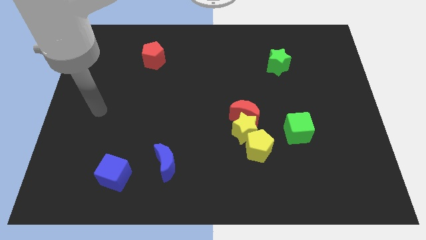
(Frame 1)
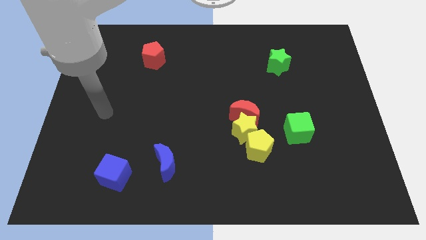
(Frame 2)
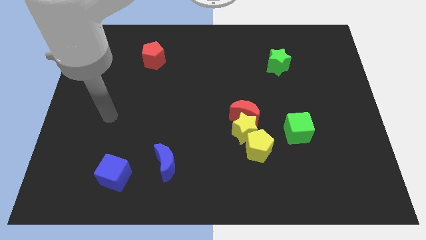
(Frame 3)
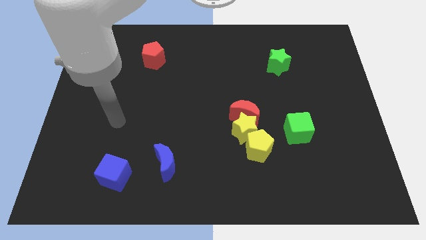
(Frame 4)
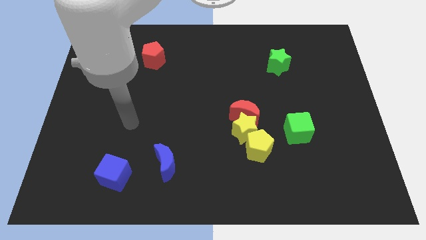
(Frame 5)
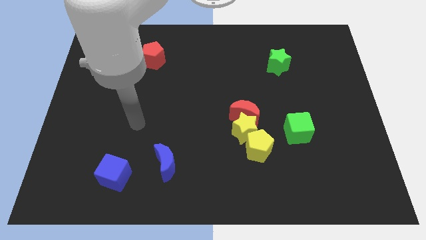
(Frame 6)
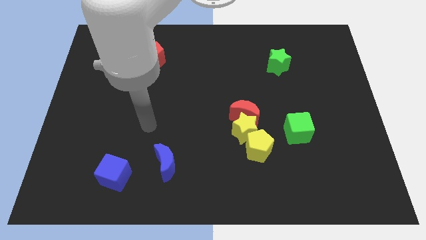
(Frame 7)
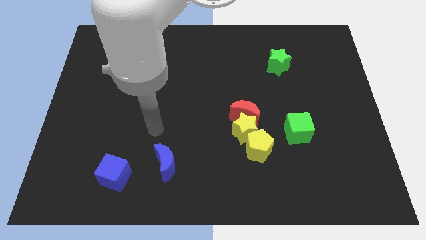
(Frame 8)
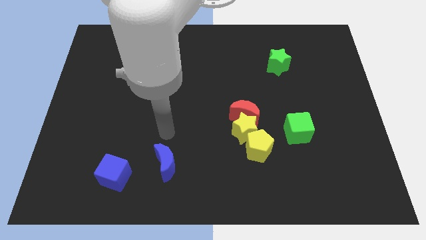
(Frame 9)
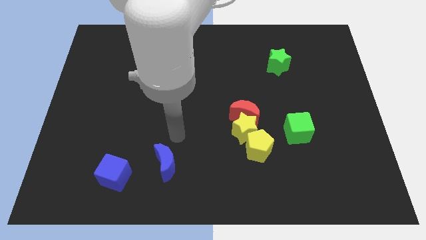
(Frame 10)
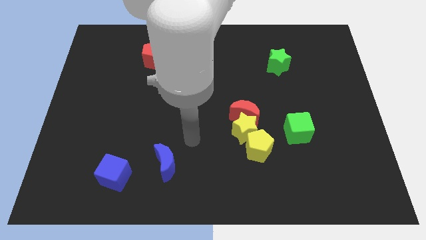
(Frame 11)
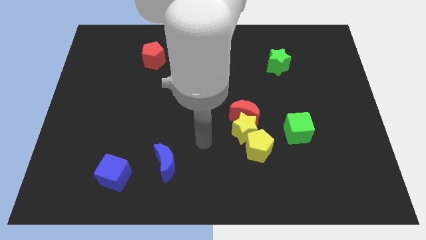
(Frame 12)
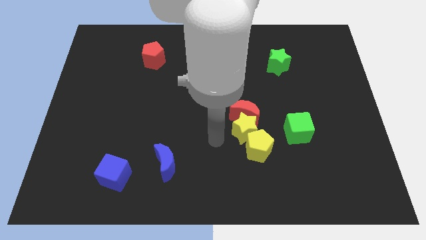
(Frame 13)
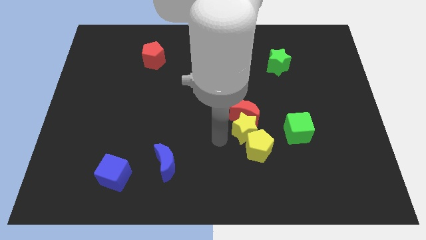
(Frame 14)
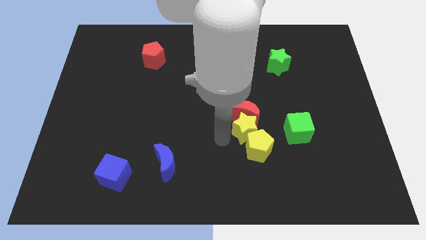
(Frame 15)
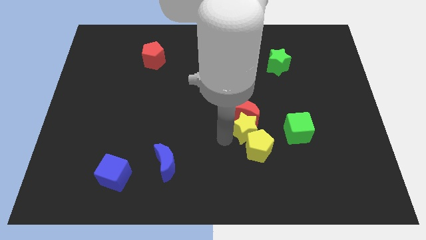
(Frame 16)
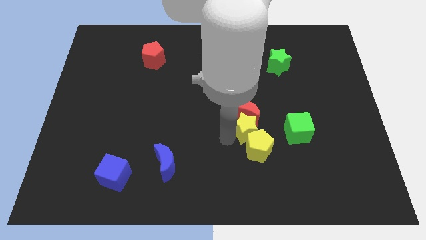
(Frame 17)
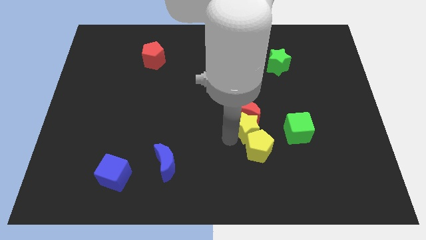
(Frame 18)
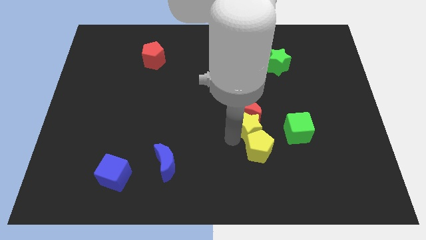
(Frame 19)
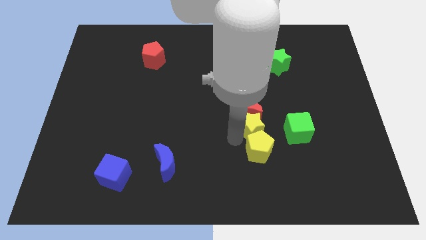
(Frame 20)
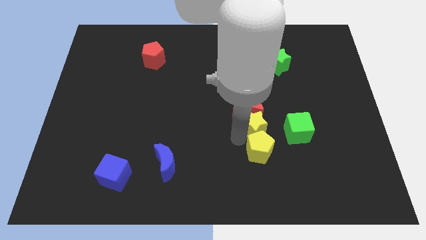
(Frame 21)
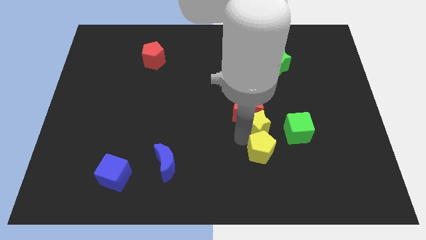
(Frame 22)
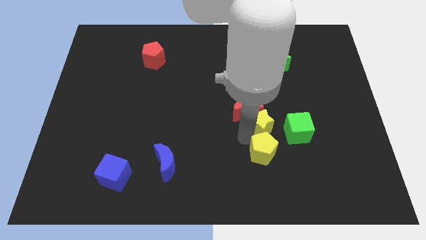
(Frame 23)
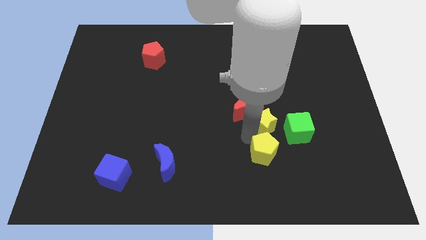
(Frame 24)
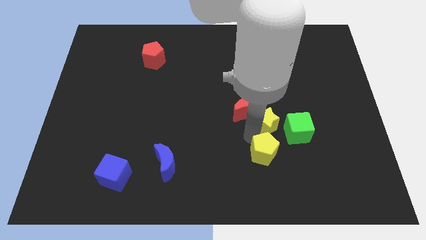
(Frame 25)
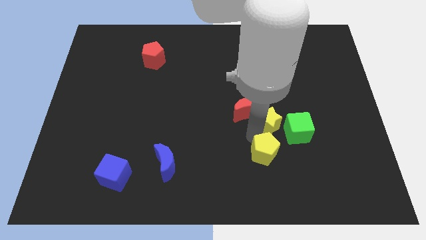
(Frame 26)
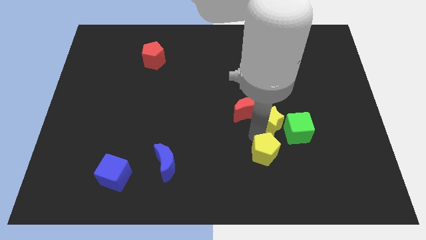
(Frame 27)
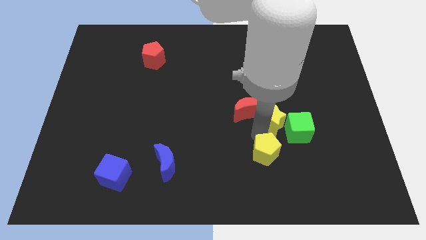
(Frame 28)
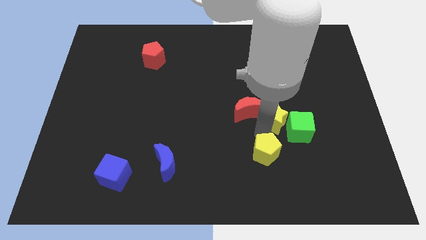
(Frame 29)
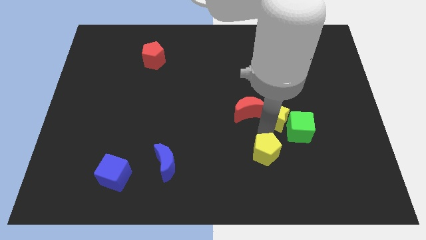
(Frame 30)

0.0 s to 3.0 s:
move the yellow star somewhat diagonally upwards and to the right

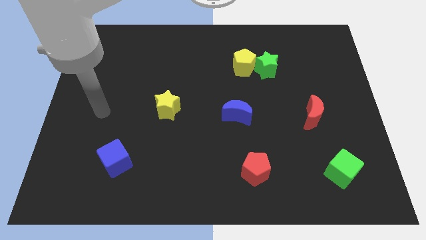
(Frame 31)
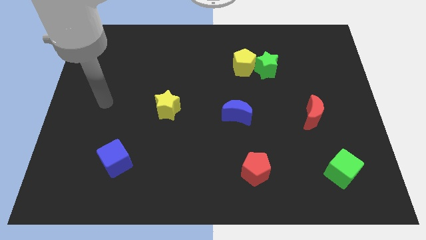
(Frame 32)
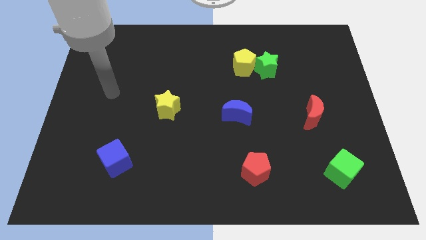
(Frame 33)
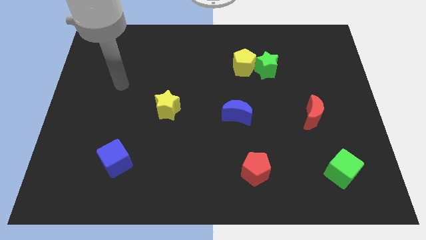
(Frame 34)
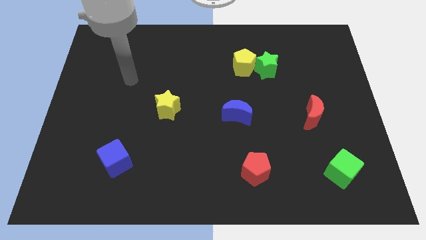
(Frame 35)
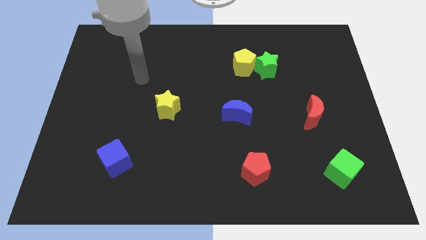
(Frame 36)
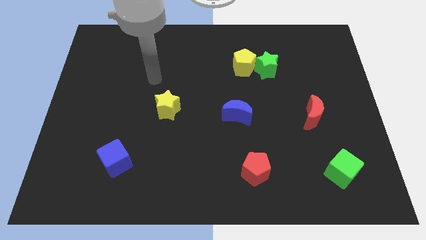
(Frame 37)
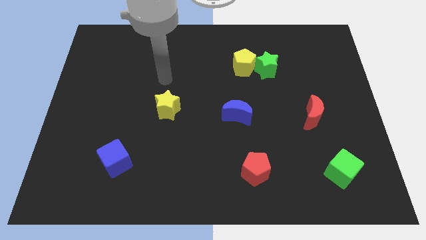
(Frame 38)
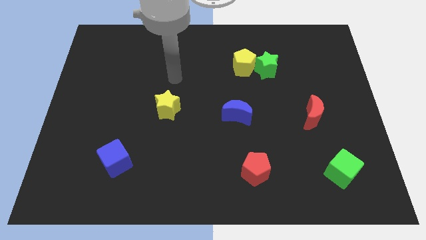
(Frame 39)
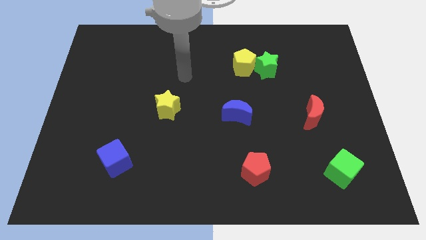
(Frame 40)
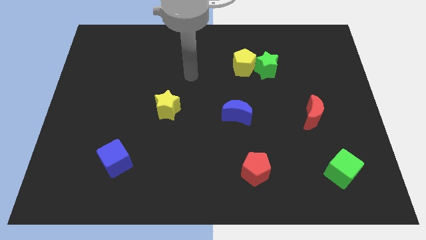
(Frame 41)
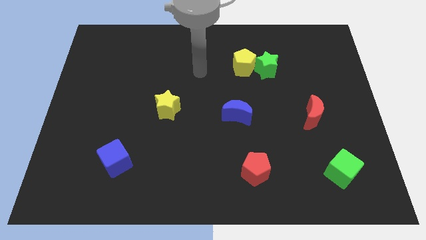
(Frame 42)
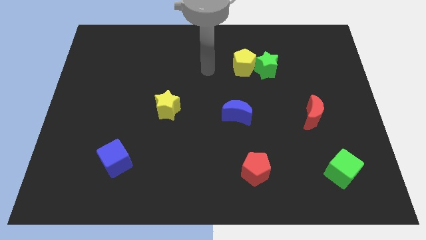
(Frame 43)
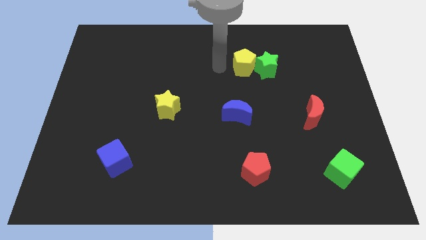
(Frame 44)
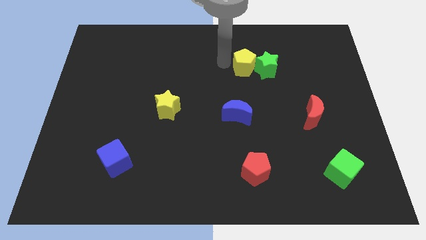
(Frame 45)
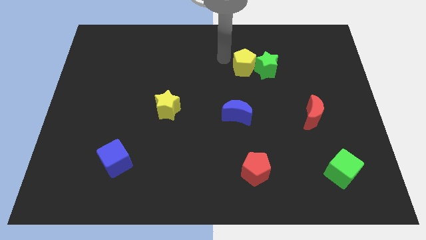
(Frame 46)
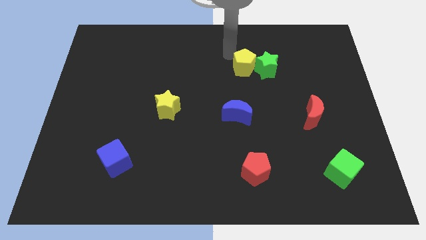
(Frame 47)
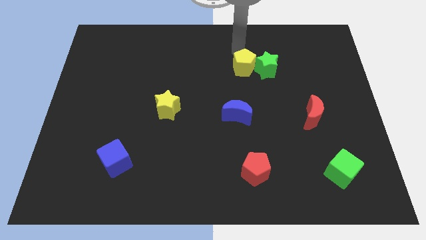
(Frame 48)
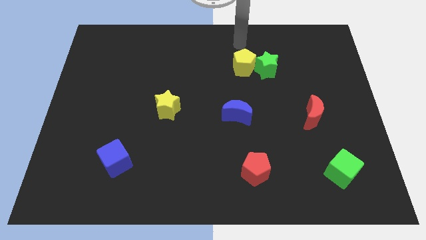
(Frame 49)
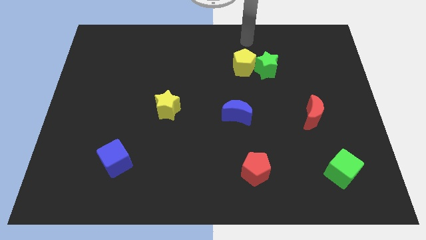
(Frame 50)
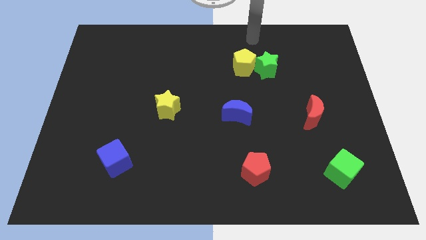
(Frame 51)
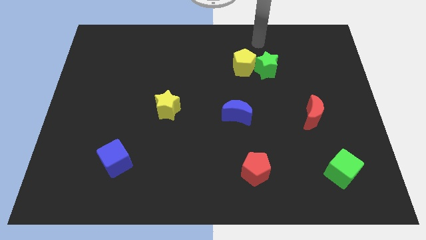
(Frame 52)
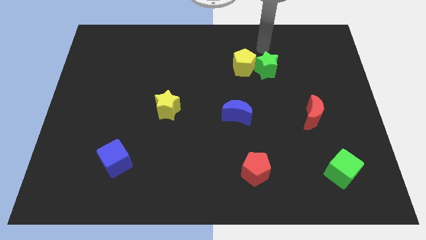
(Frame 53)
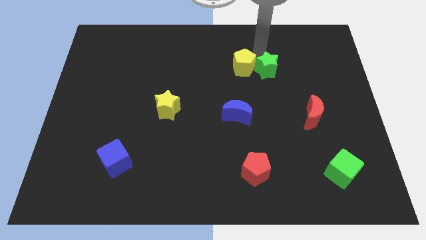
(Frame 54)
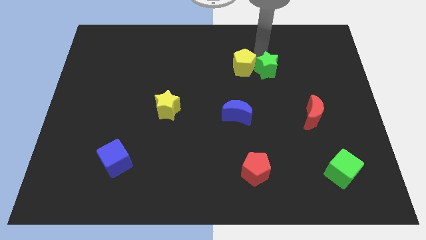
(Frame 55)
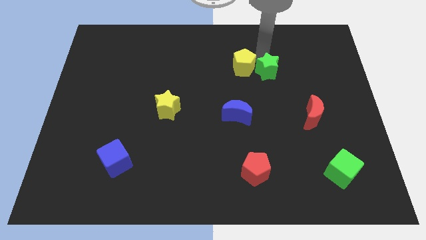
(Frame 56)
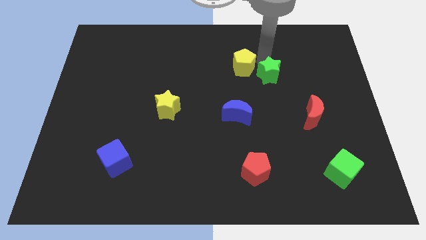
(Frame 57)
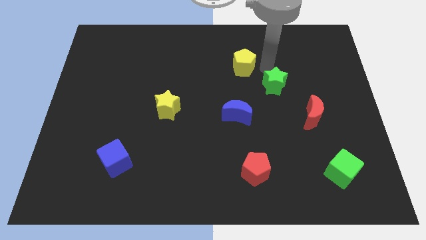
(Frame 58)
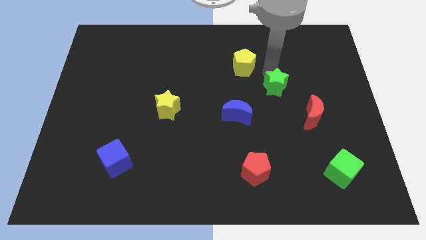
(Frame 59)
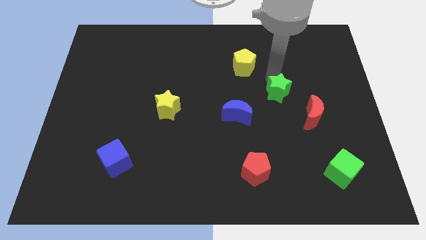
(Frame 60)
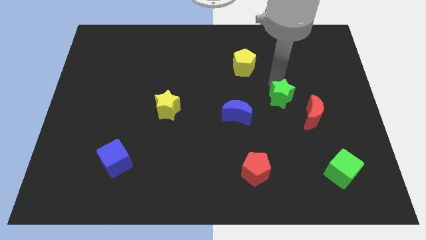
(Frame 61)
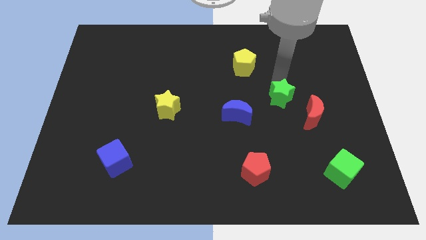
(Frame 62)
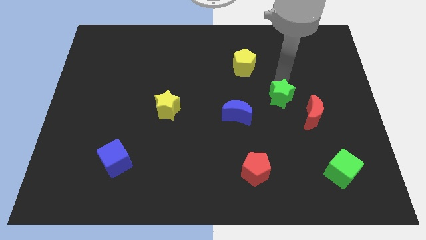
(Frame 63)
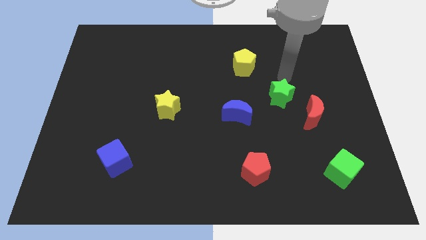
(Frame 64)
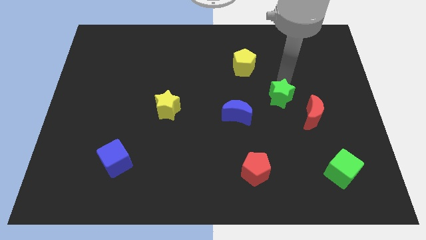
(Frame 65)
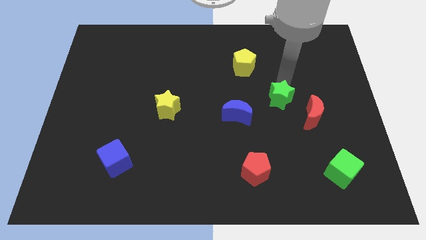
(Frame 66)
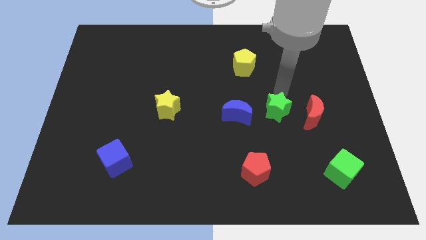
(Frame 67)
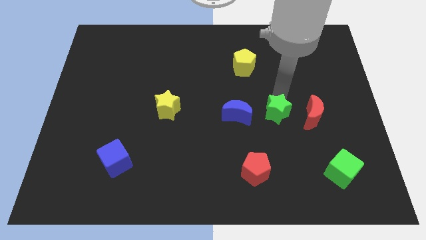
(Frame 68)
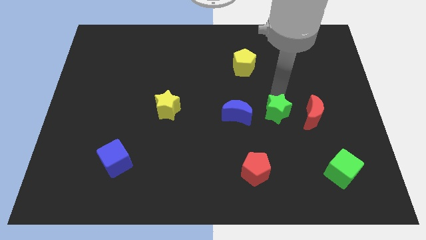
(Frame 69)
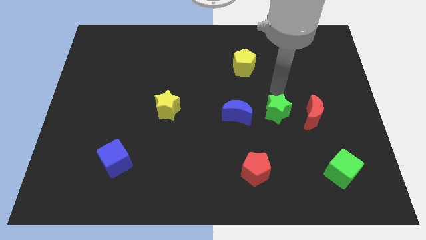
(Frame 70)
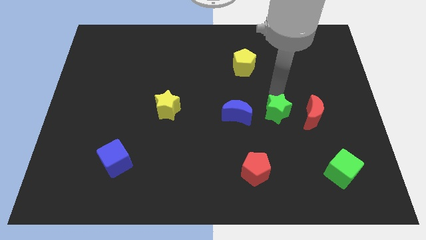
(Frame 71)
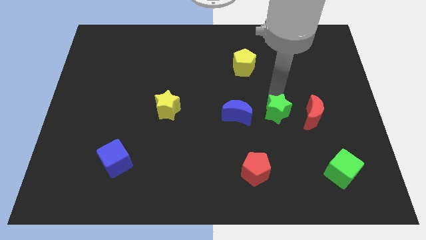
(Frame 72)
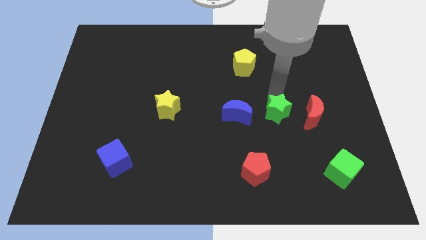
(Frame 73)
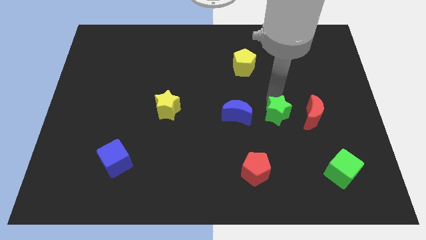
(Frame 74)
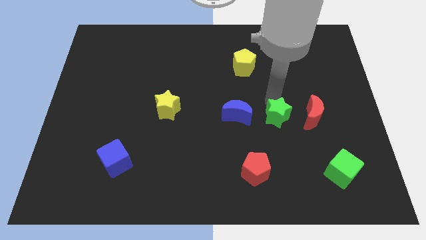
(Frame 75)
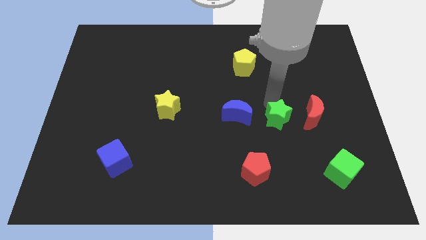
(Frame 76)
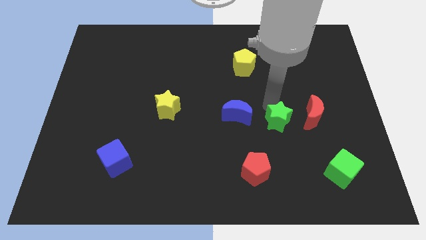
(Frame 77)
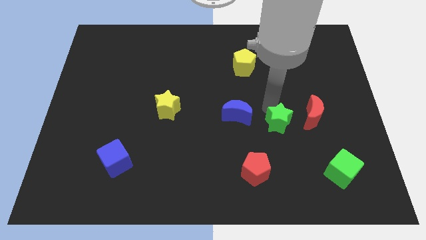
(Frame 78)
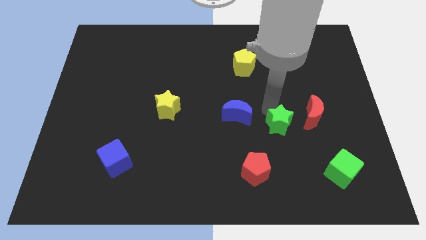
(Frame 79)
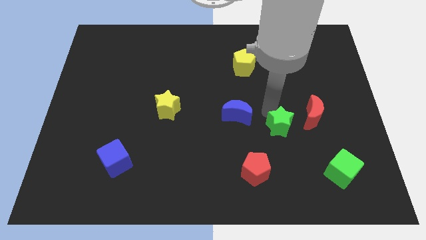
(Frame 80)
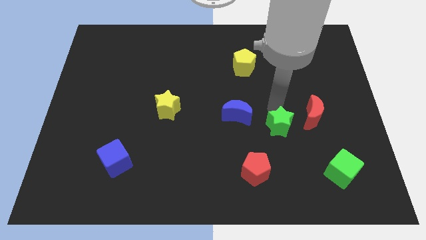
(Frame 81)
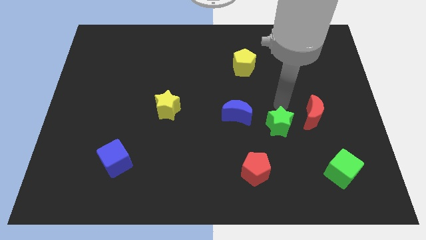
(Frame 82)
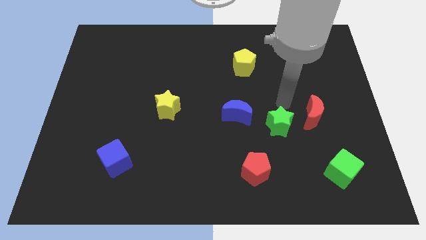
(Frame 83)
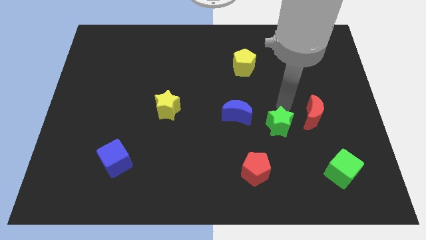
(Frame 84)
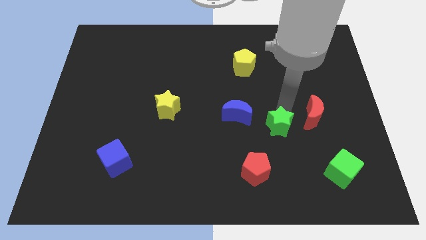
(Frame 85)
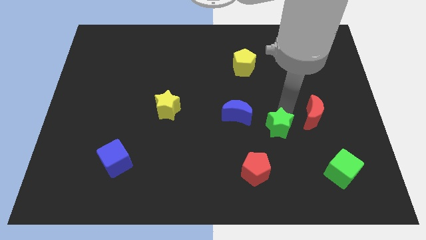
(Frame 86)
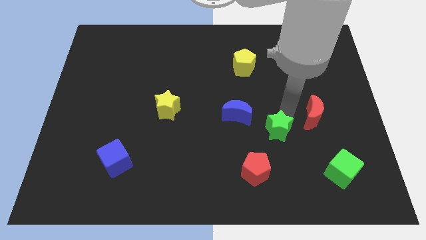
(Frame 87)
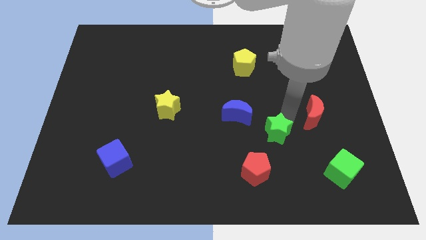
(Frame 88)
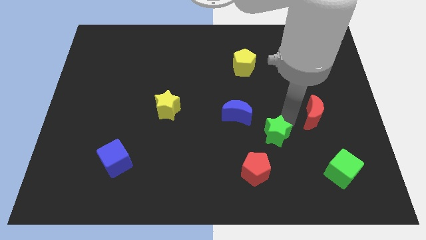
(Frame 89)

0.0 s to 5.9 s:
slide the green star downwards

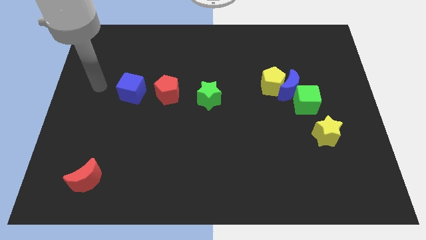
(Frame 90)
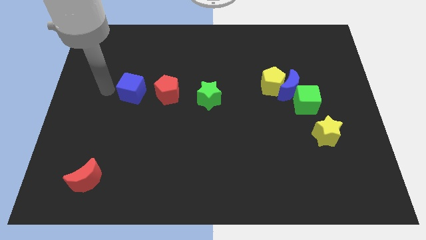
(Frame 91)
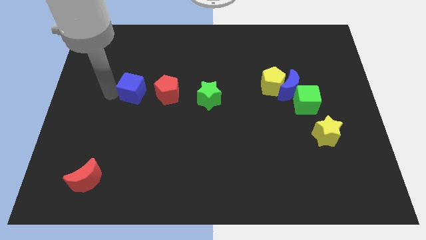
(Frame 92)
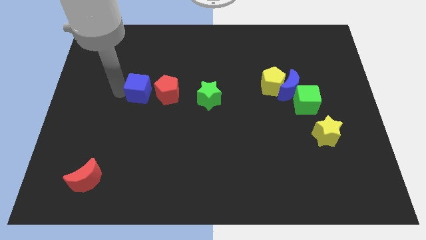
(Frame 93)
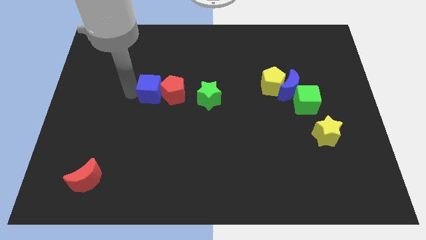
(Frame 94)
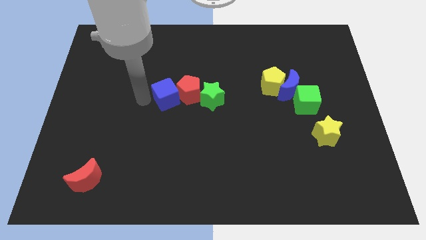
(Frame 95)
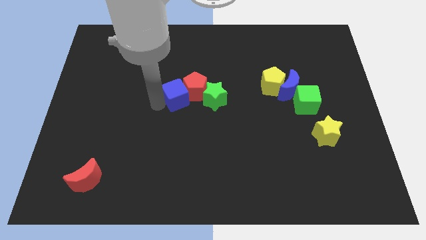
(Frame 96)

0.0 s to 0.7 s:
push the red pentagon to the right somewhat
